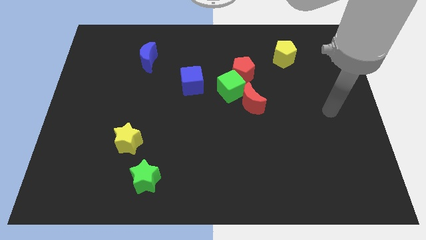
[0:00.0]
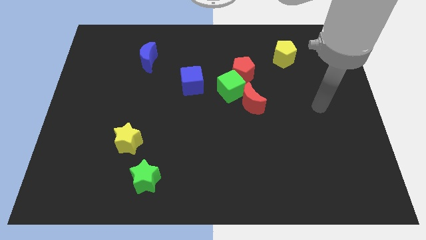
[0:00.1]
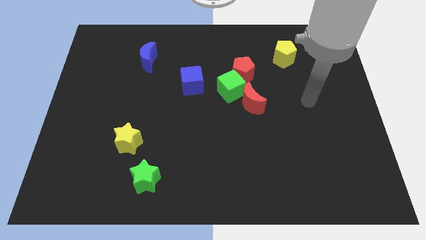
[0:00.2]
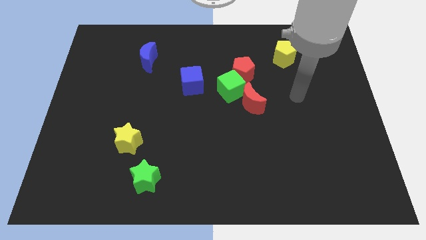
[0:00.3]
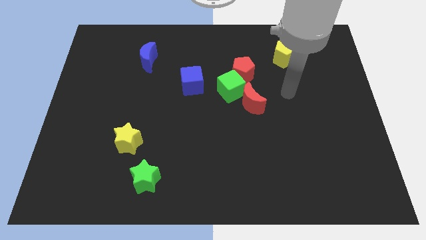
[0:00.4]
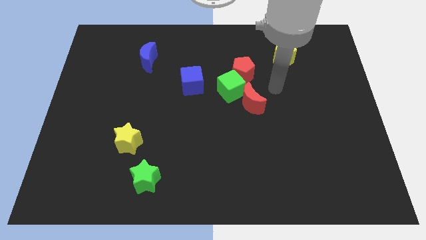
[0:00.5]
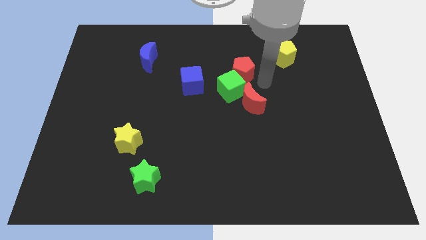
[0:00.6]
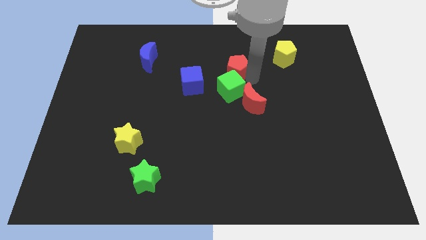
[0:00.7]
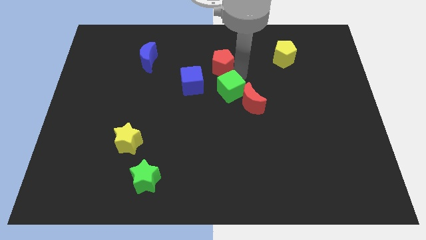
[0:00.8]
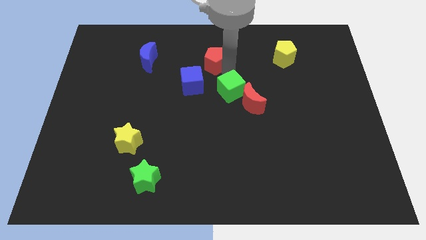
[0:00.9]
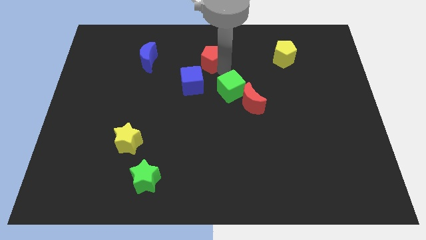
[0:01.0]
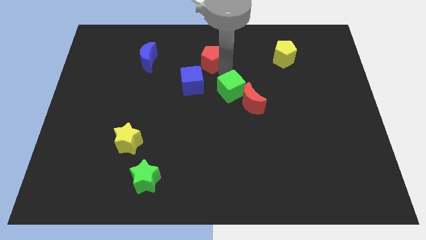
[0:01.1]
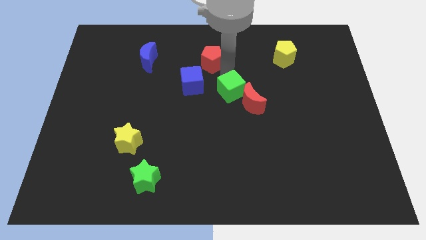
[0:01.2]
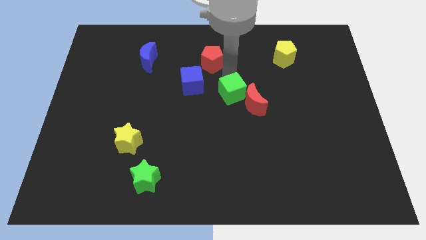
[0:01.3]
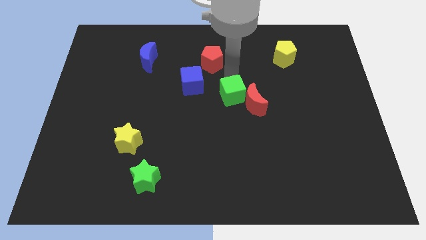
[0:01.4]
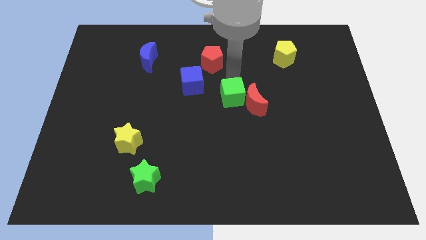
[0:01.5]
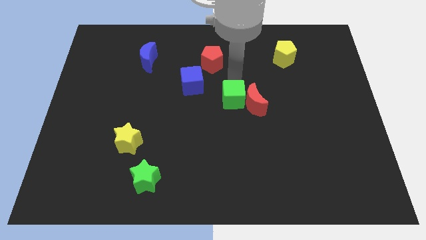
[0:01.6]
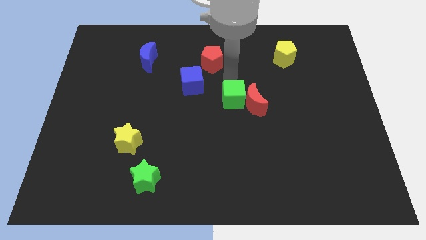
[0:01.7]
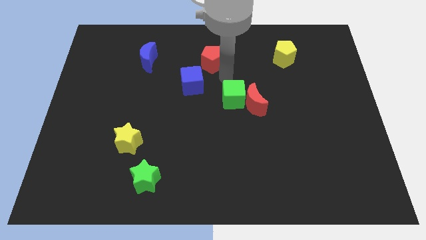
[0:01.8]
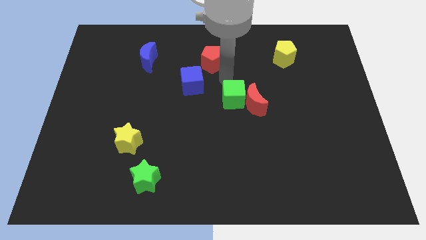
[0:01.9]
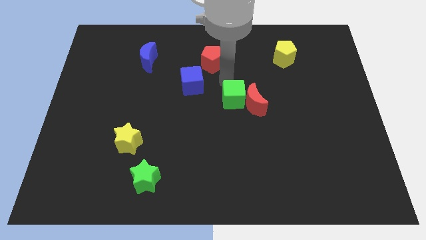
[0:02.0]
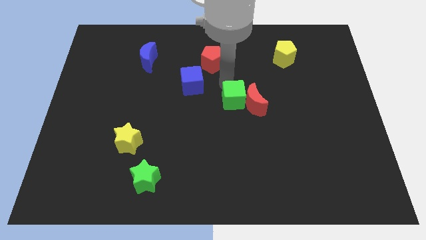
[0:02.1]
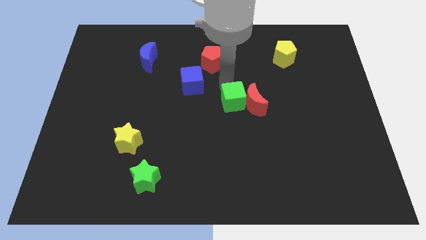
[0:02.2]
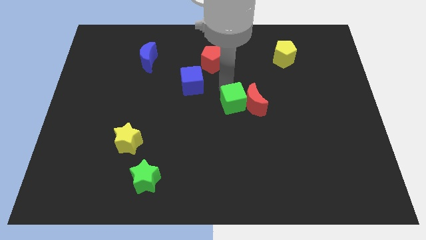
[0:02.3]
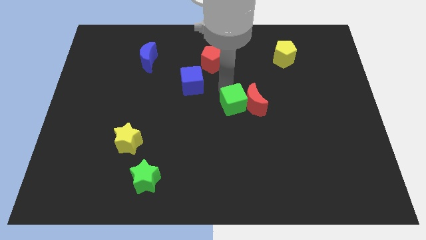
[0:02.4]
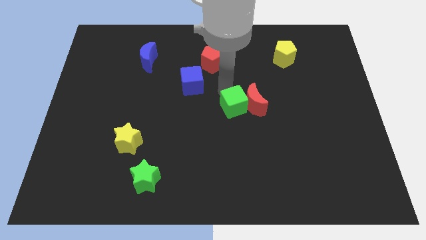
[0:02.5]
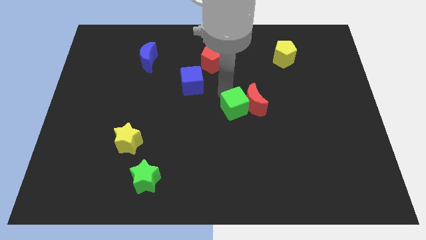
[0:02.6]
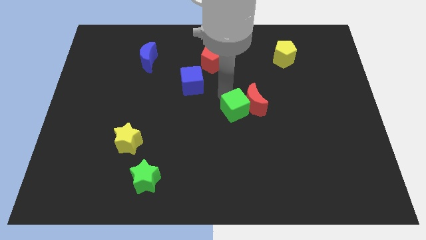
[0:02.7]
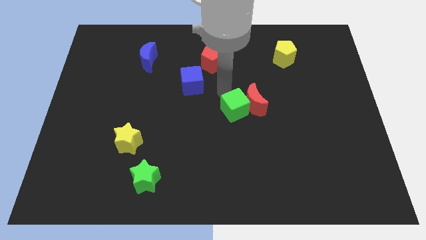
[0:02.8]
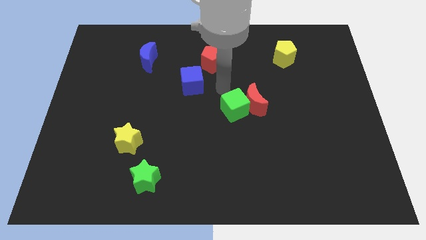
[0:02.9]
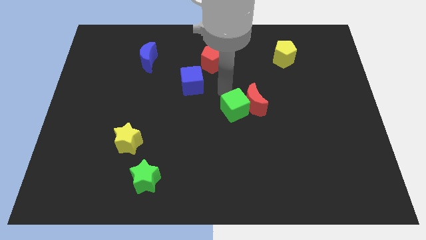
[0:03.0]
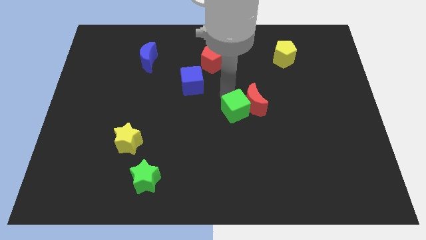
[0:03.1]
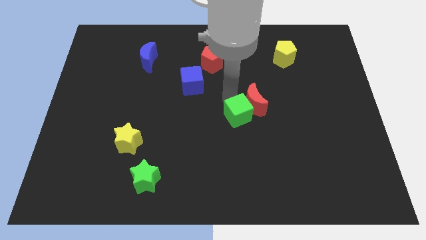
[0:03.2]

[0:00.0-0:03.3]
pull the green cube apart from the group

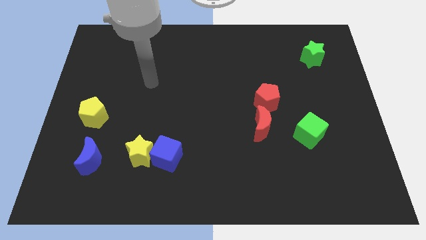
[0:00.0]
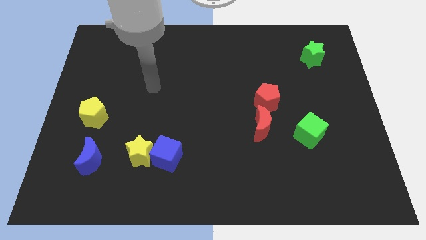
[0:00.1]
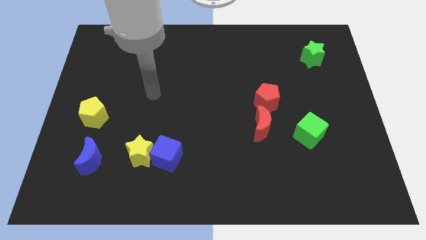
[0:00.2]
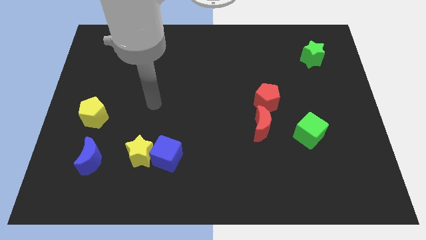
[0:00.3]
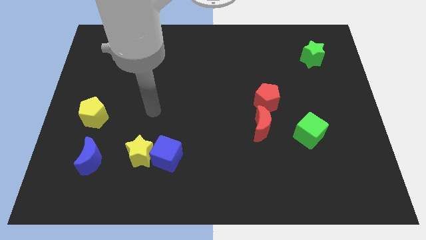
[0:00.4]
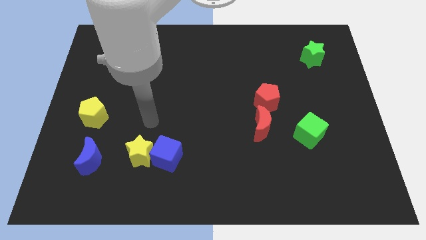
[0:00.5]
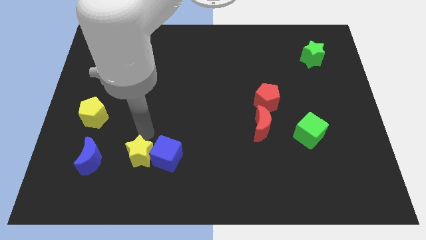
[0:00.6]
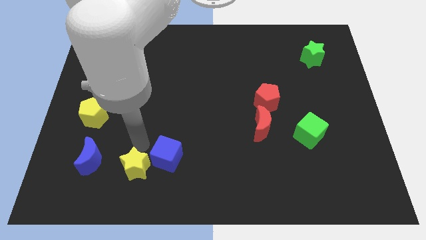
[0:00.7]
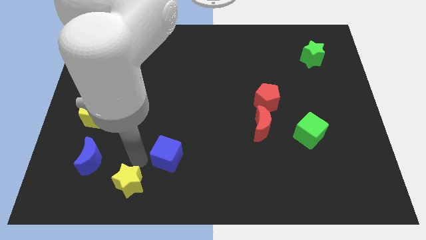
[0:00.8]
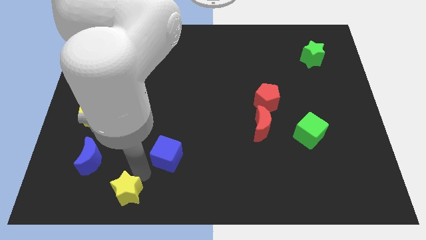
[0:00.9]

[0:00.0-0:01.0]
separate the blue cube from the yellow star

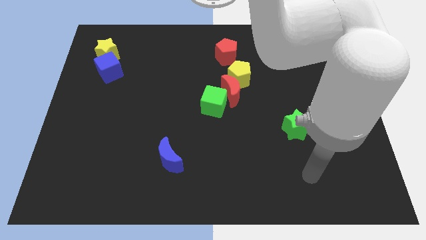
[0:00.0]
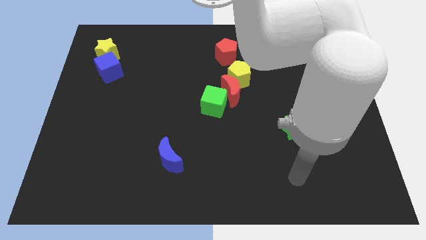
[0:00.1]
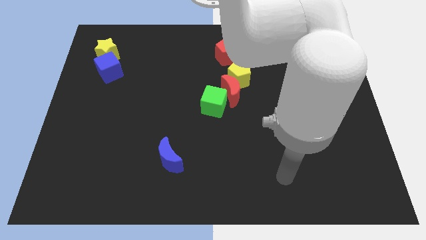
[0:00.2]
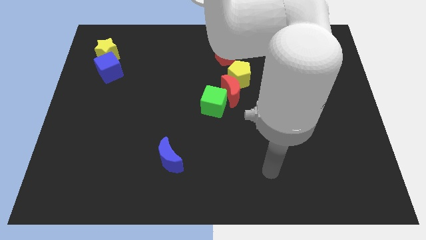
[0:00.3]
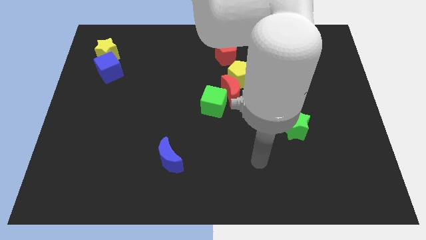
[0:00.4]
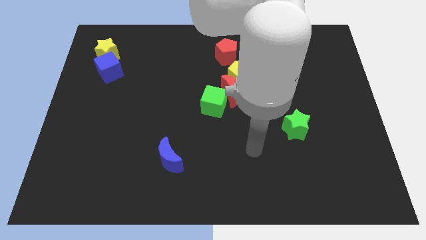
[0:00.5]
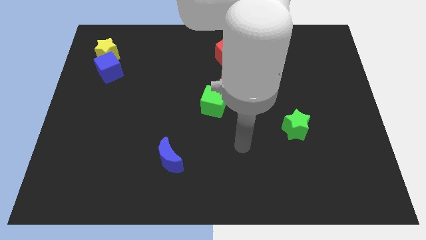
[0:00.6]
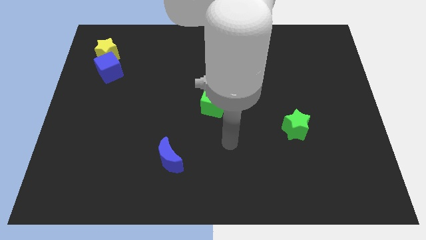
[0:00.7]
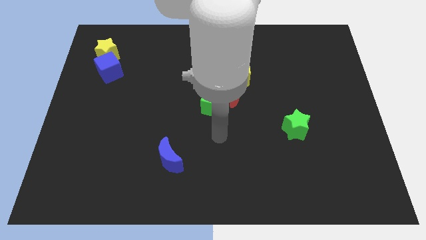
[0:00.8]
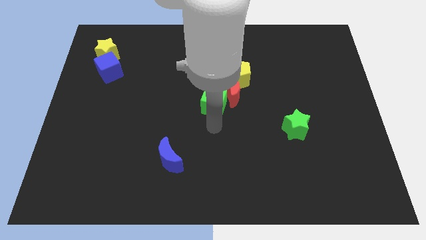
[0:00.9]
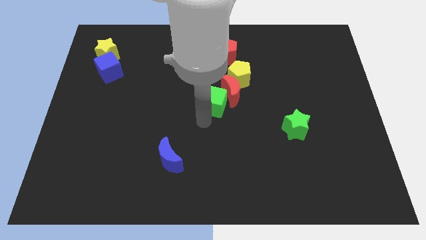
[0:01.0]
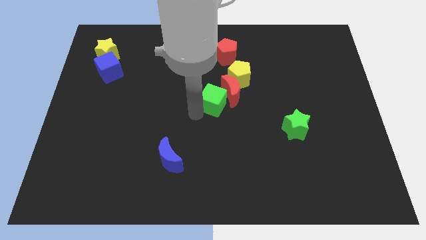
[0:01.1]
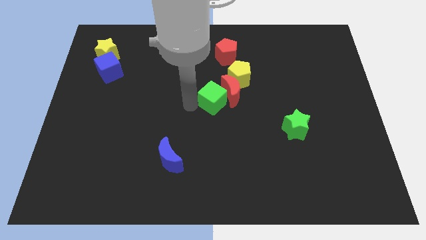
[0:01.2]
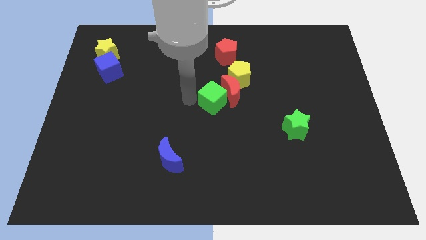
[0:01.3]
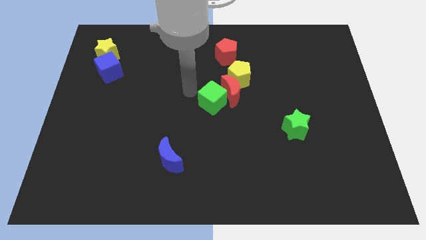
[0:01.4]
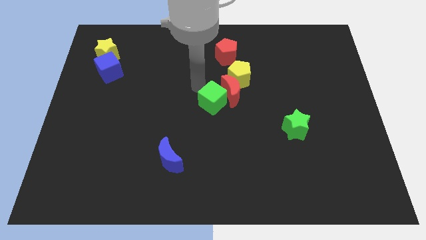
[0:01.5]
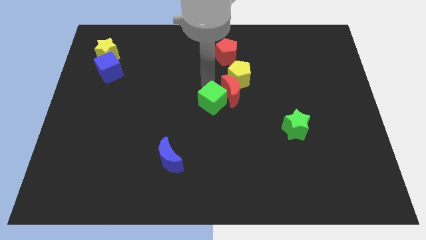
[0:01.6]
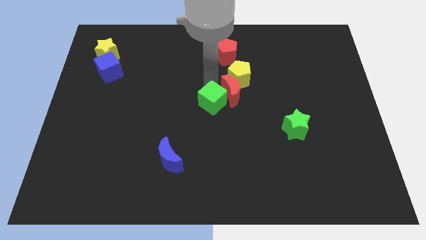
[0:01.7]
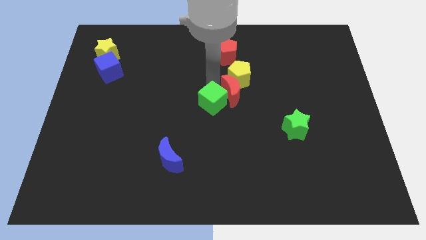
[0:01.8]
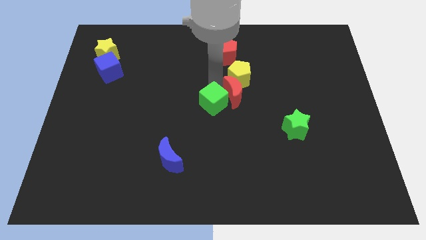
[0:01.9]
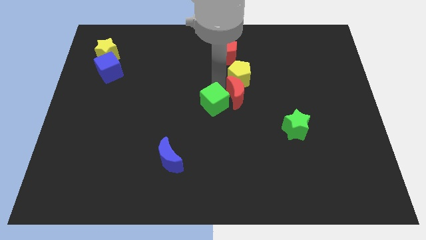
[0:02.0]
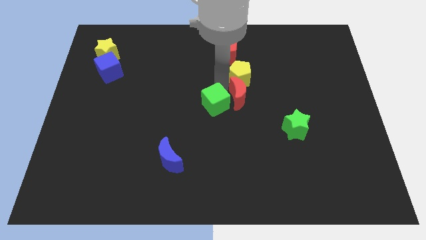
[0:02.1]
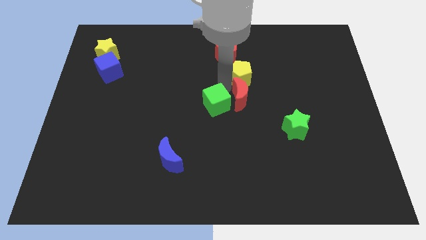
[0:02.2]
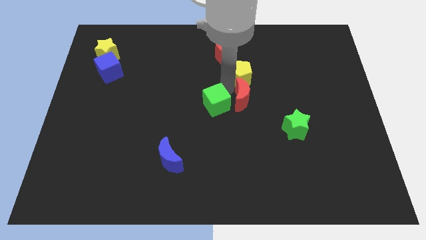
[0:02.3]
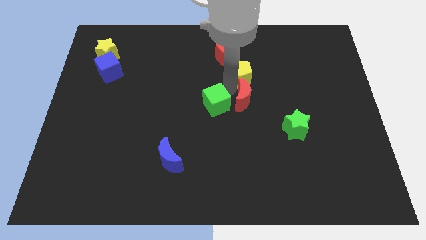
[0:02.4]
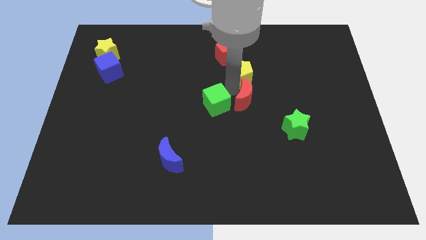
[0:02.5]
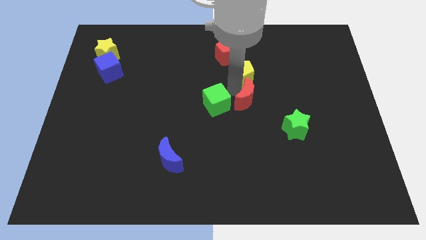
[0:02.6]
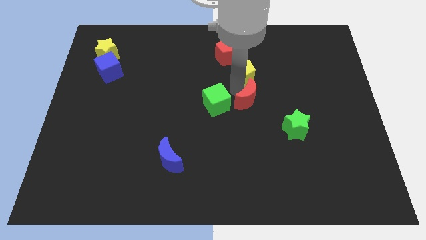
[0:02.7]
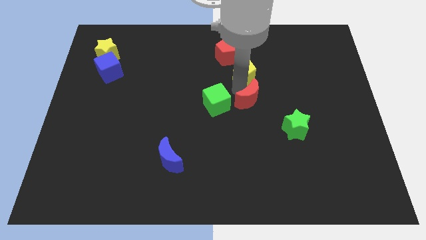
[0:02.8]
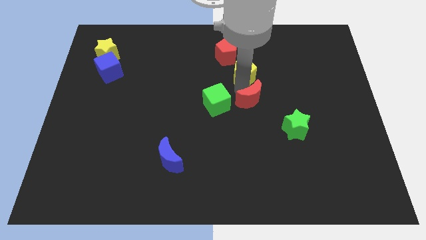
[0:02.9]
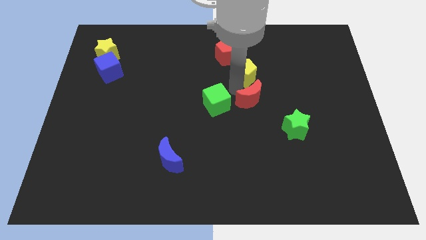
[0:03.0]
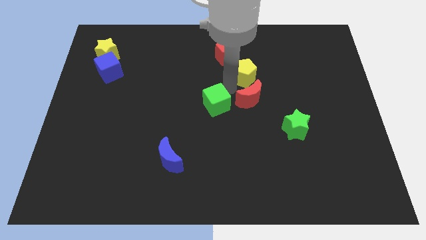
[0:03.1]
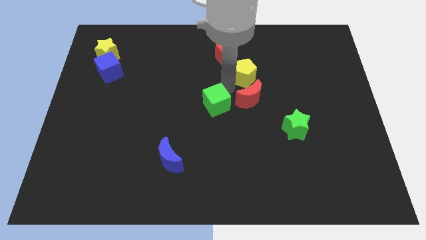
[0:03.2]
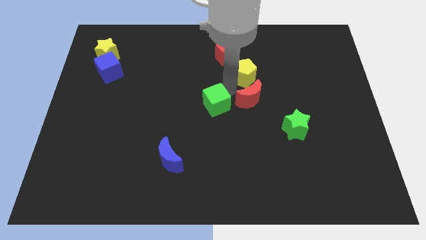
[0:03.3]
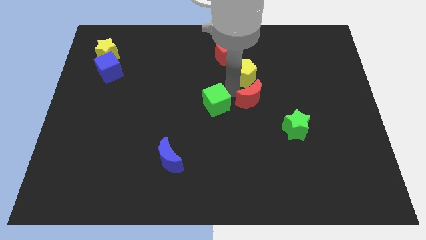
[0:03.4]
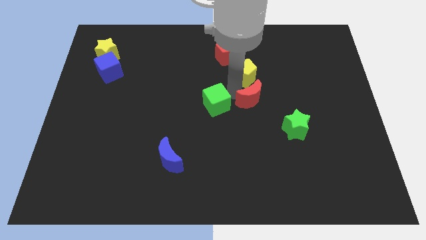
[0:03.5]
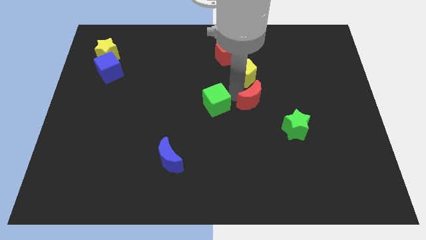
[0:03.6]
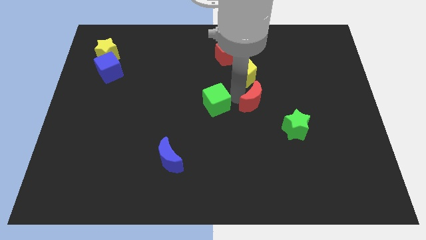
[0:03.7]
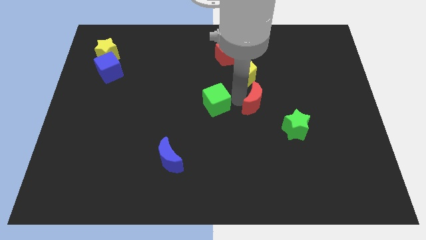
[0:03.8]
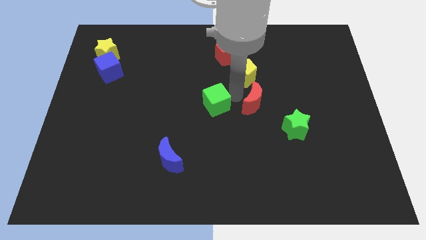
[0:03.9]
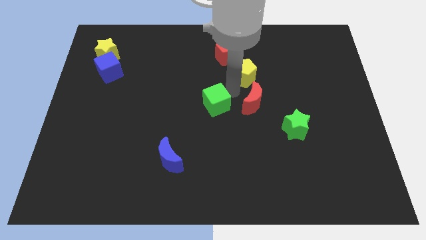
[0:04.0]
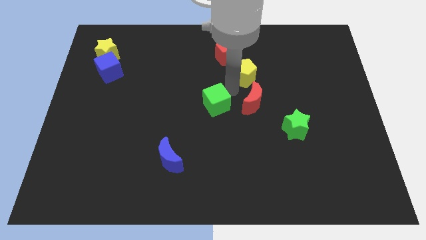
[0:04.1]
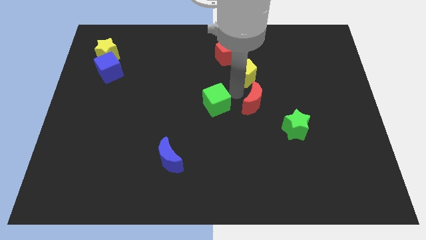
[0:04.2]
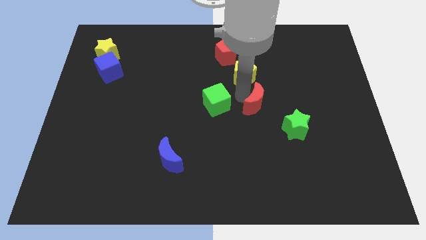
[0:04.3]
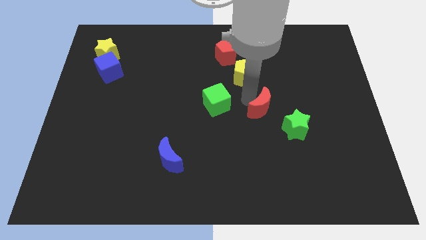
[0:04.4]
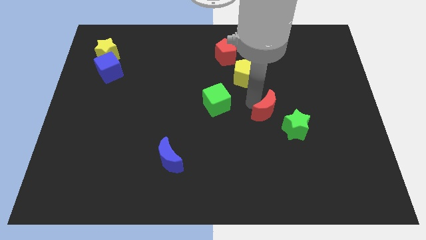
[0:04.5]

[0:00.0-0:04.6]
separate the red moon from the yellow pentagon and green cube

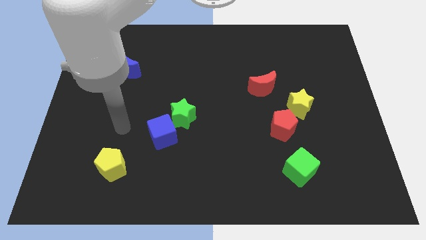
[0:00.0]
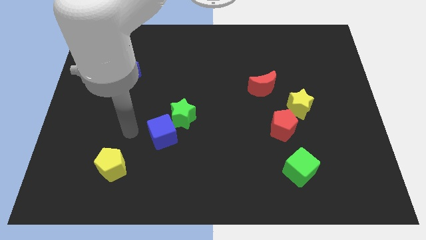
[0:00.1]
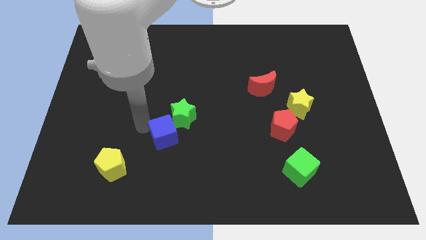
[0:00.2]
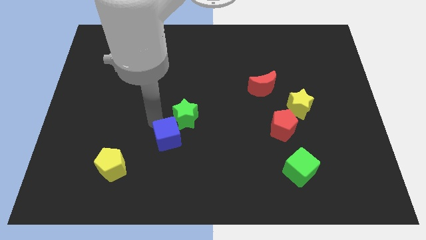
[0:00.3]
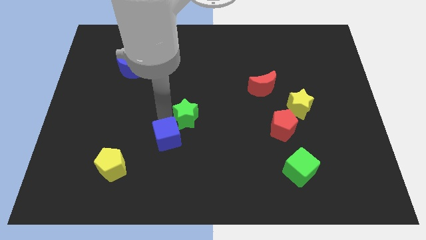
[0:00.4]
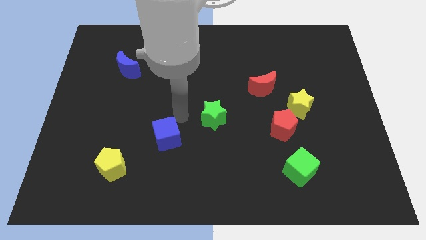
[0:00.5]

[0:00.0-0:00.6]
pull the blue cube apart from the green star
